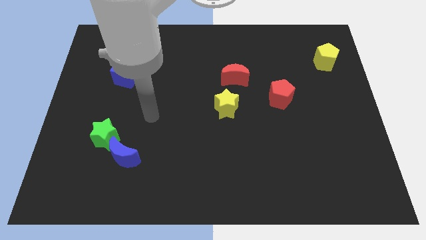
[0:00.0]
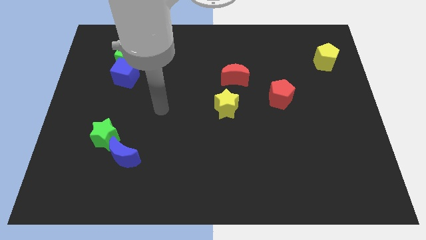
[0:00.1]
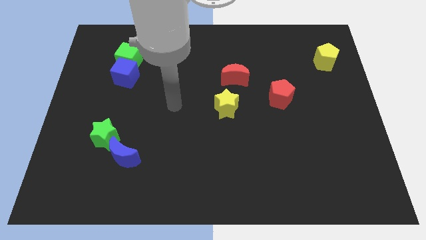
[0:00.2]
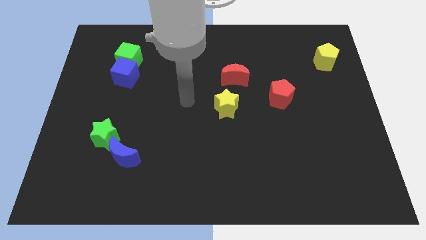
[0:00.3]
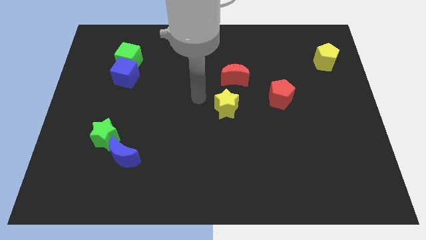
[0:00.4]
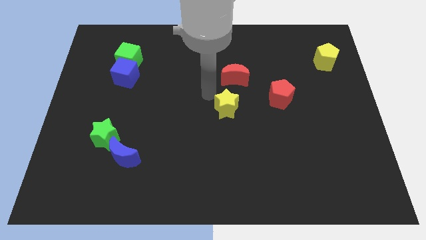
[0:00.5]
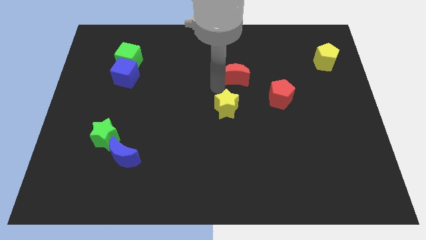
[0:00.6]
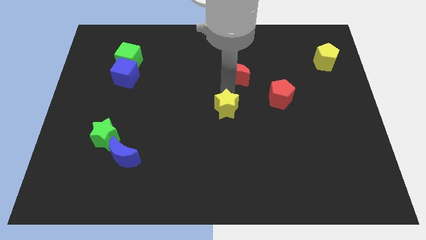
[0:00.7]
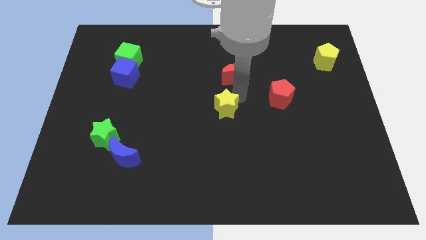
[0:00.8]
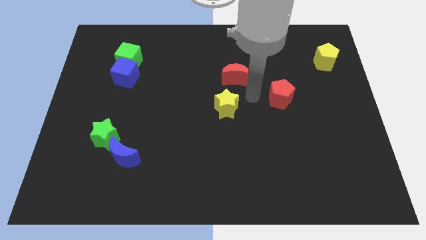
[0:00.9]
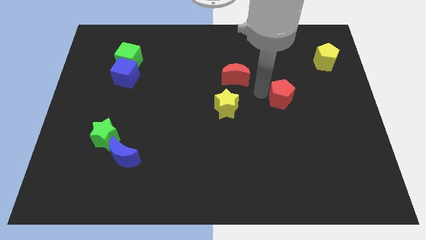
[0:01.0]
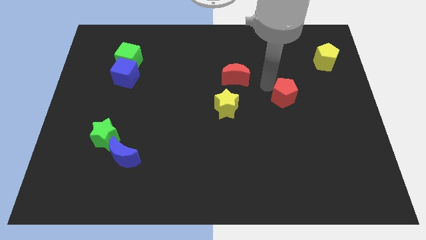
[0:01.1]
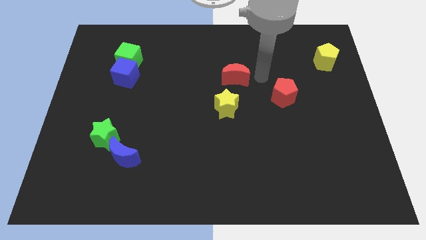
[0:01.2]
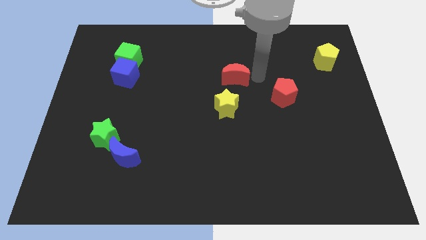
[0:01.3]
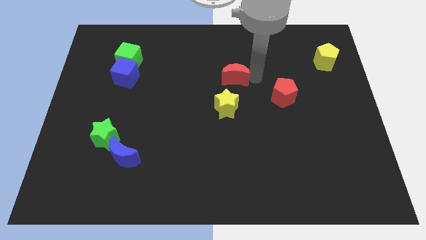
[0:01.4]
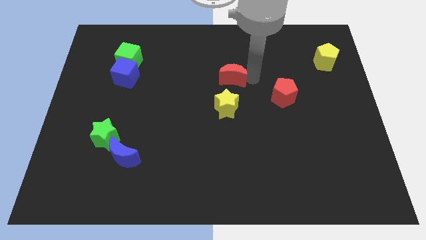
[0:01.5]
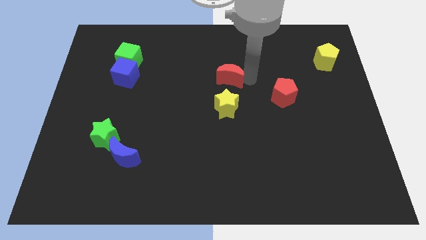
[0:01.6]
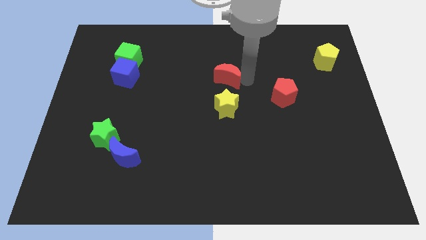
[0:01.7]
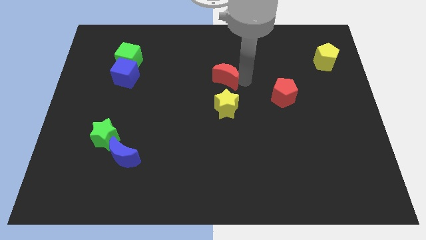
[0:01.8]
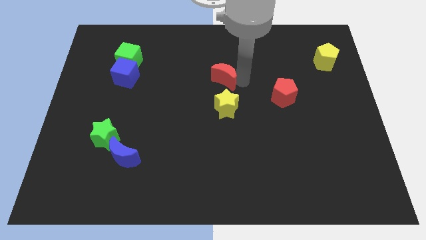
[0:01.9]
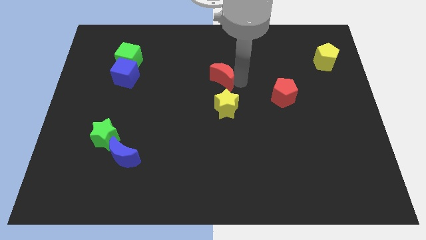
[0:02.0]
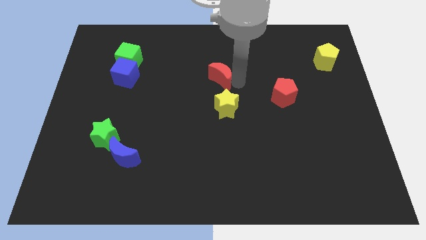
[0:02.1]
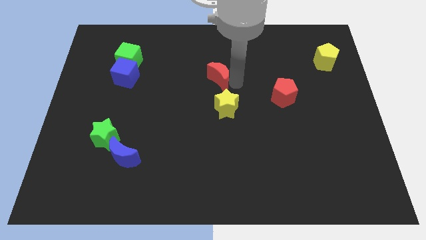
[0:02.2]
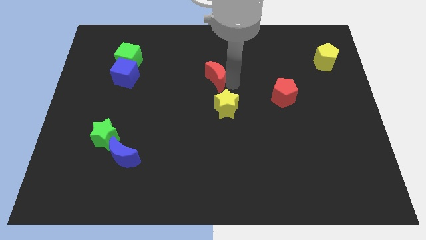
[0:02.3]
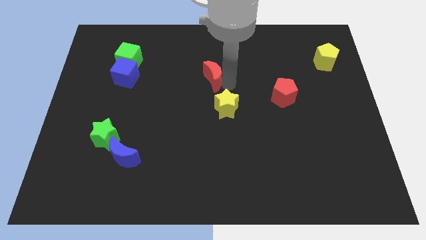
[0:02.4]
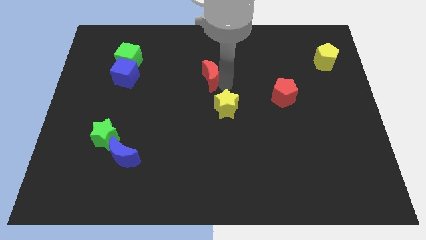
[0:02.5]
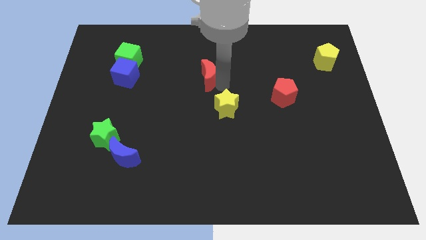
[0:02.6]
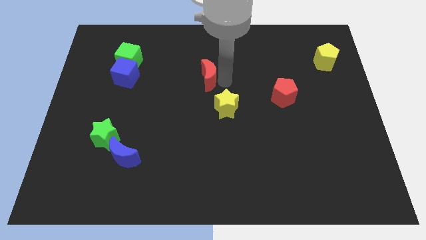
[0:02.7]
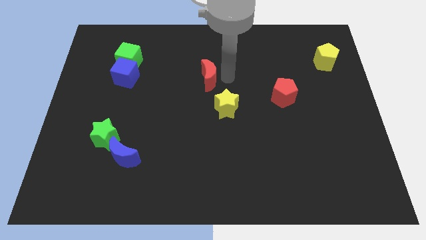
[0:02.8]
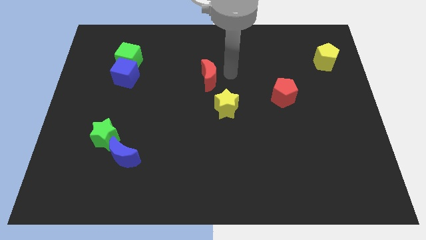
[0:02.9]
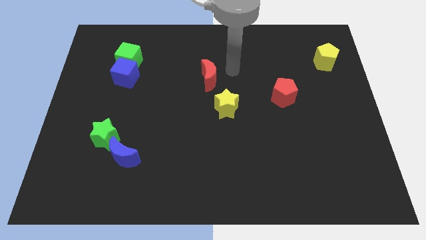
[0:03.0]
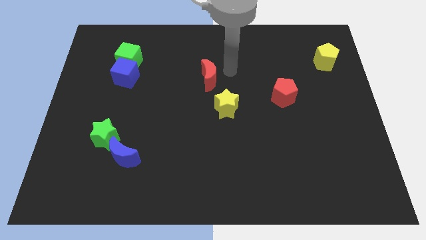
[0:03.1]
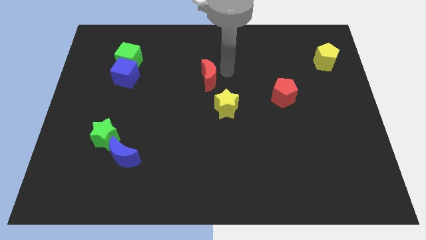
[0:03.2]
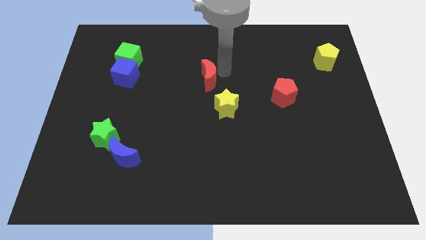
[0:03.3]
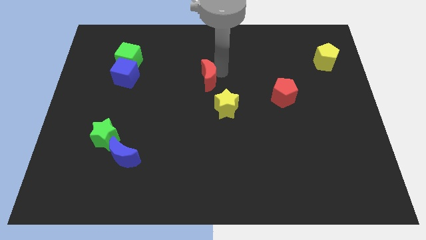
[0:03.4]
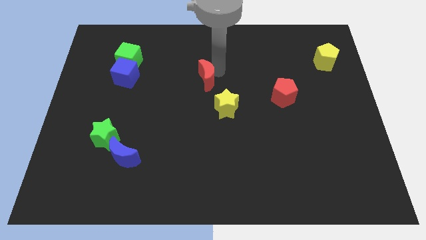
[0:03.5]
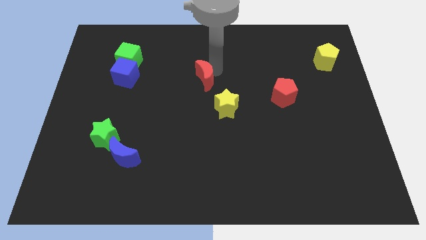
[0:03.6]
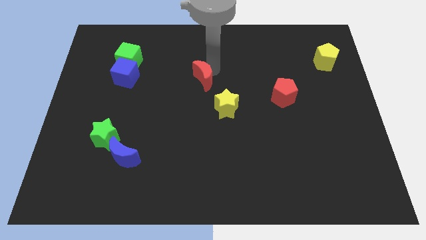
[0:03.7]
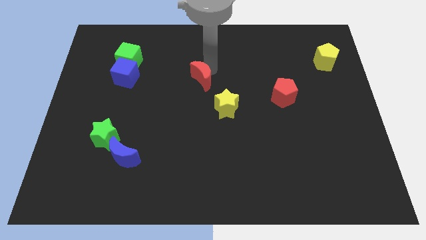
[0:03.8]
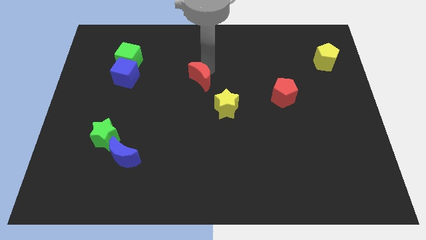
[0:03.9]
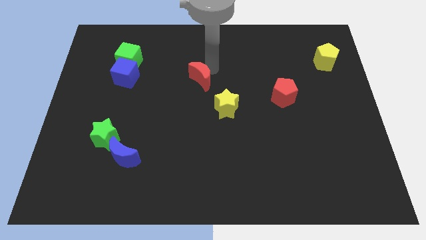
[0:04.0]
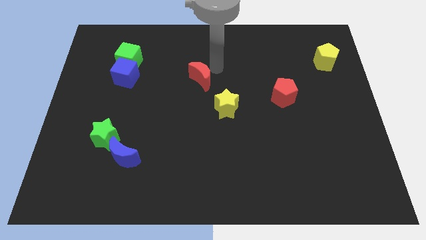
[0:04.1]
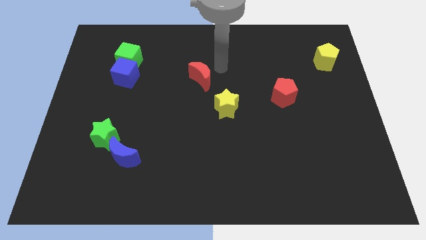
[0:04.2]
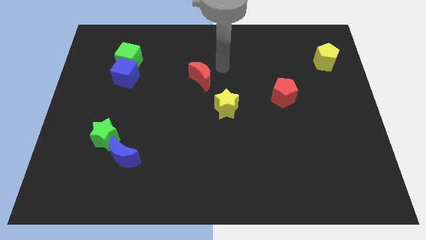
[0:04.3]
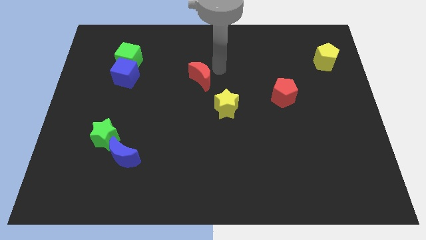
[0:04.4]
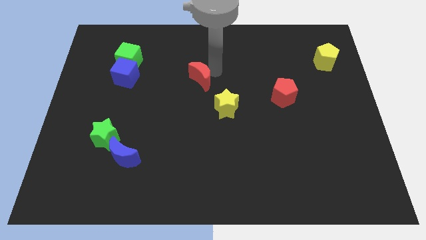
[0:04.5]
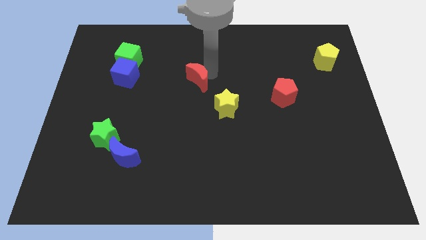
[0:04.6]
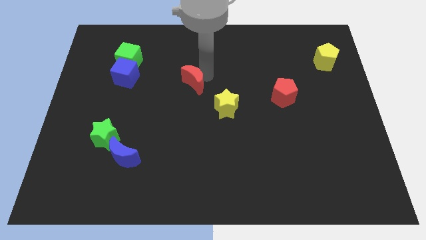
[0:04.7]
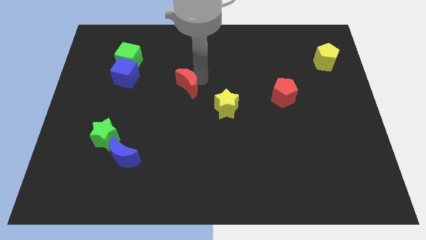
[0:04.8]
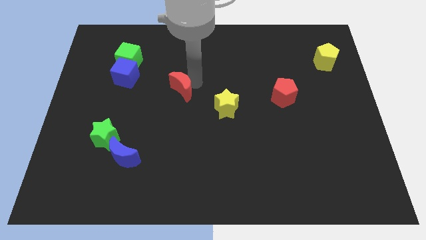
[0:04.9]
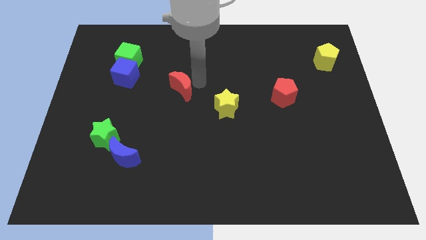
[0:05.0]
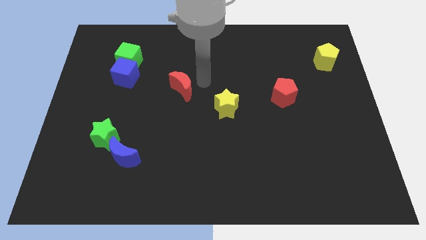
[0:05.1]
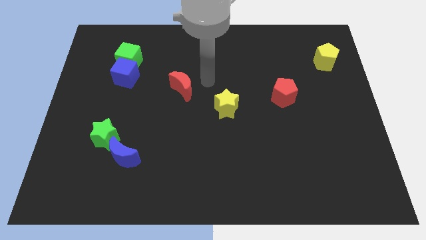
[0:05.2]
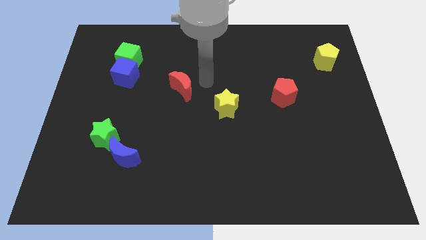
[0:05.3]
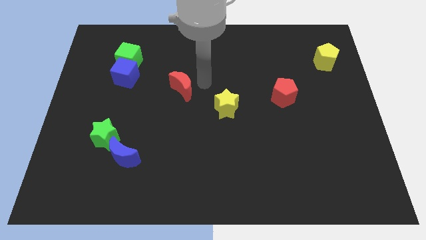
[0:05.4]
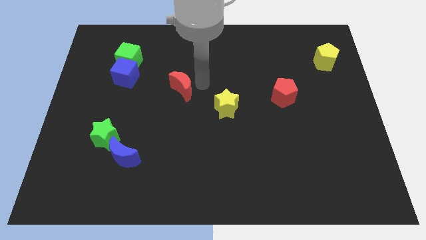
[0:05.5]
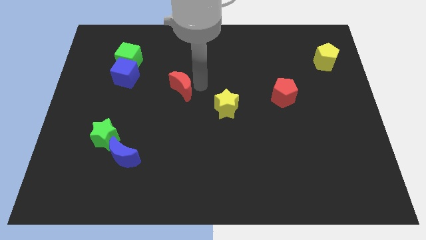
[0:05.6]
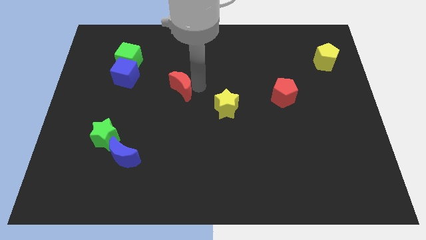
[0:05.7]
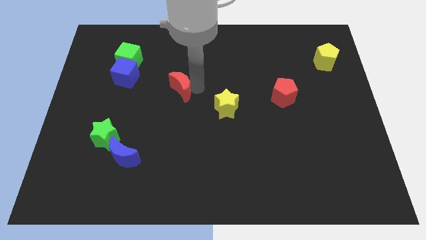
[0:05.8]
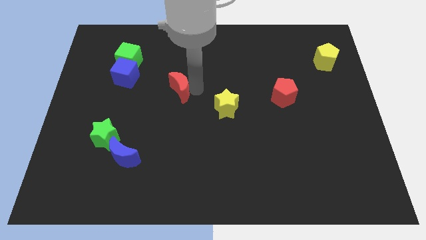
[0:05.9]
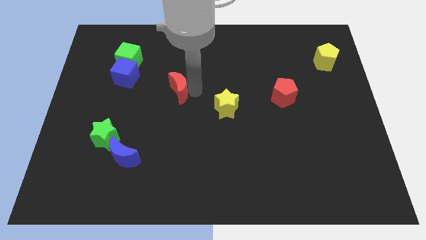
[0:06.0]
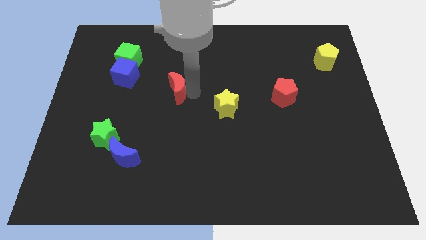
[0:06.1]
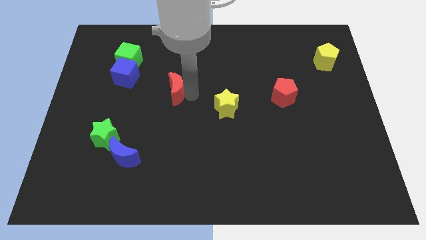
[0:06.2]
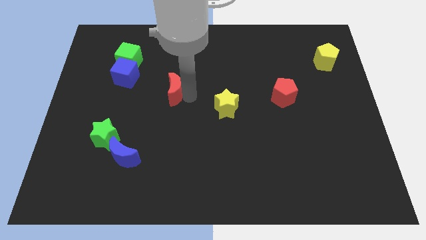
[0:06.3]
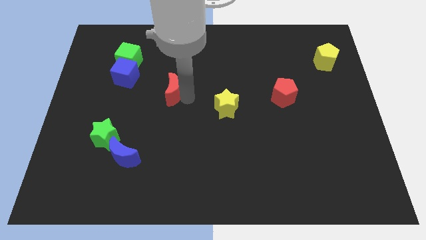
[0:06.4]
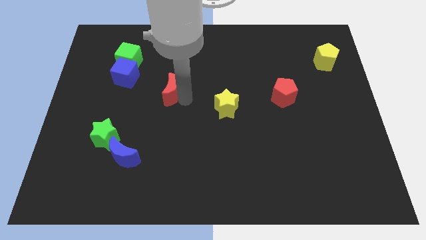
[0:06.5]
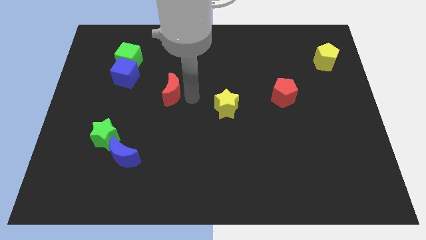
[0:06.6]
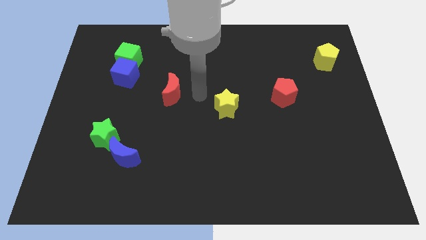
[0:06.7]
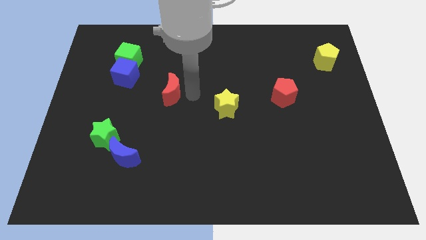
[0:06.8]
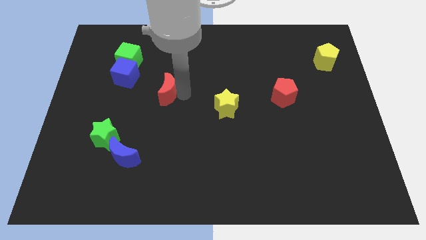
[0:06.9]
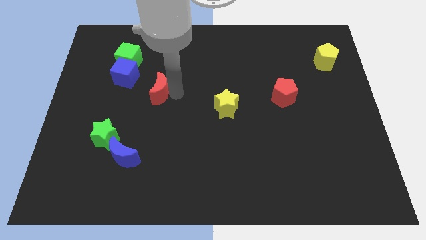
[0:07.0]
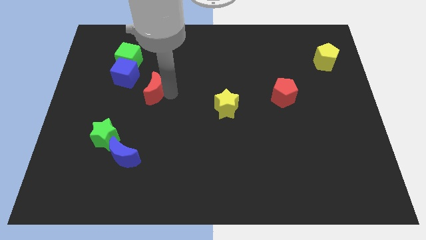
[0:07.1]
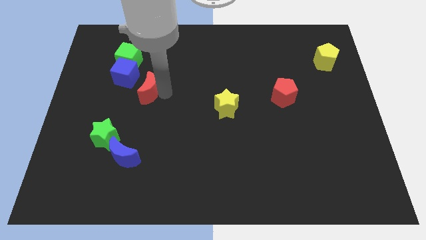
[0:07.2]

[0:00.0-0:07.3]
move the red moon left

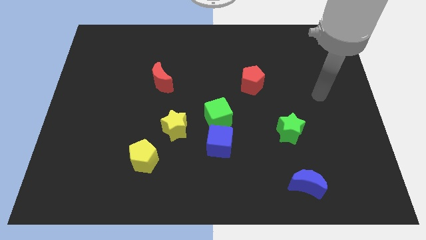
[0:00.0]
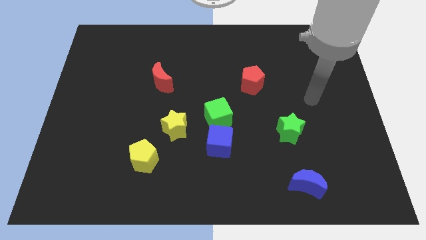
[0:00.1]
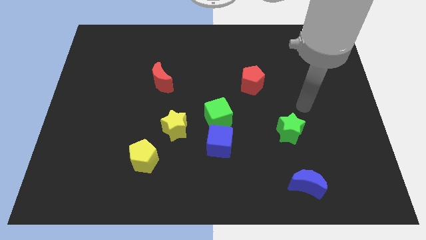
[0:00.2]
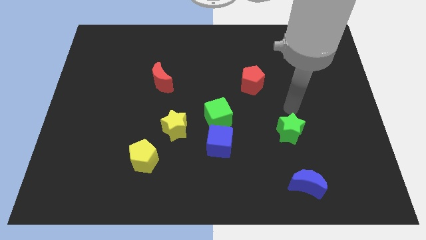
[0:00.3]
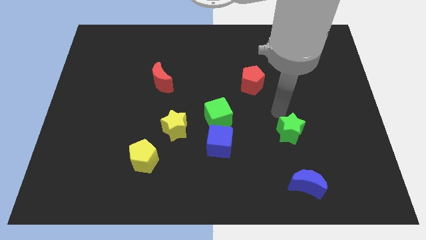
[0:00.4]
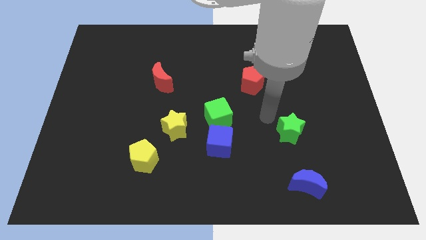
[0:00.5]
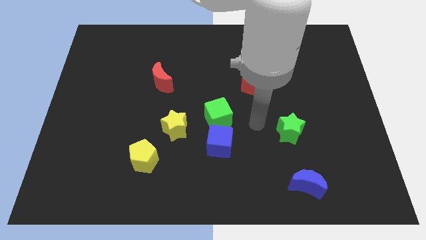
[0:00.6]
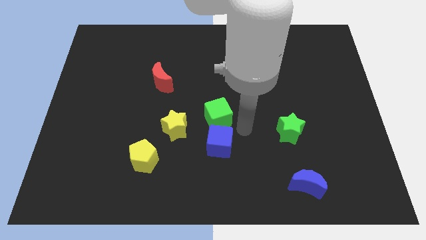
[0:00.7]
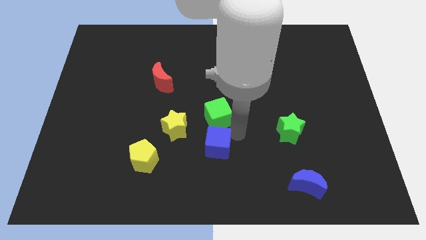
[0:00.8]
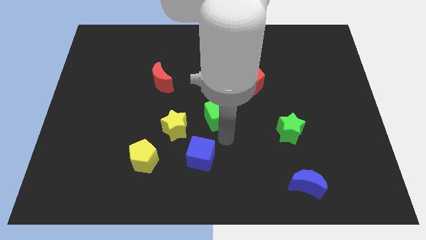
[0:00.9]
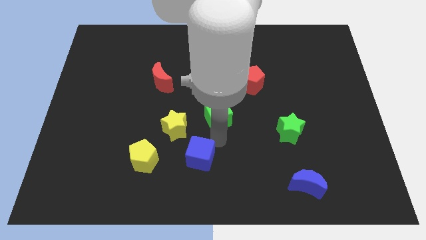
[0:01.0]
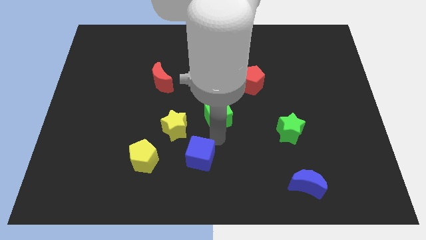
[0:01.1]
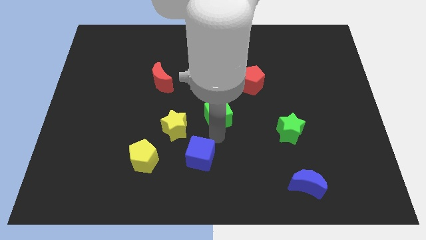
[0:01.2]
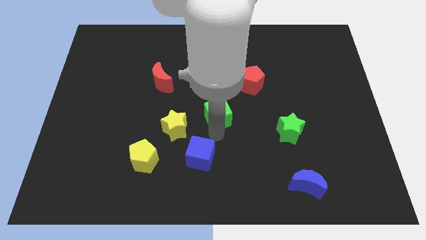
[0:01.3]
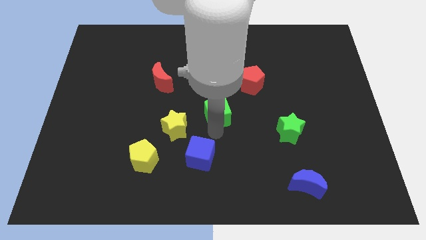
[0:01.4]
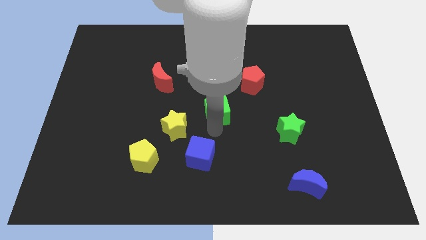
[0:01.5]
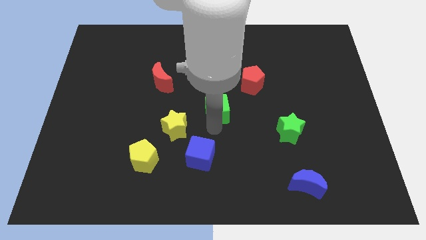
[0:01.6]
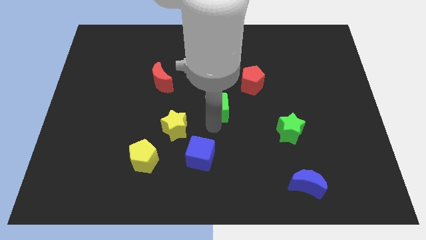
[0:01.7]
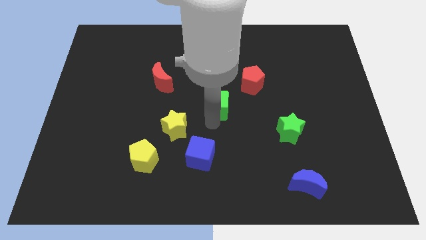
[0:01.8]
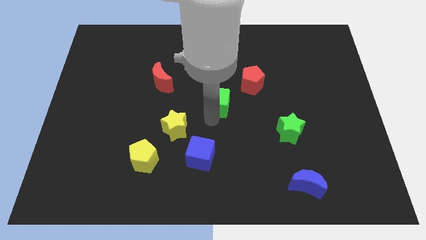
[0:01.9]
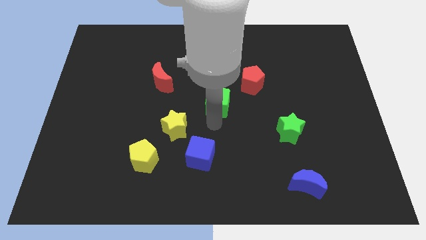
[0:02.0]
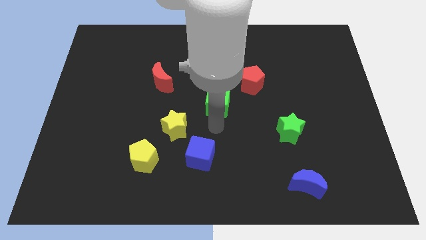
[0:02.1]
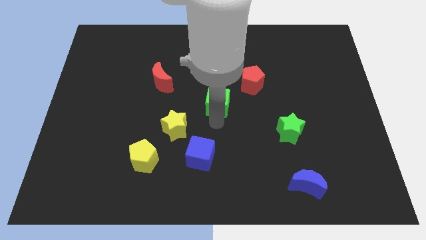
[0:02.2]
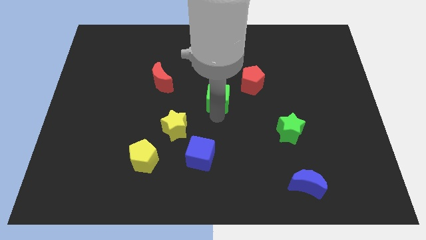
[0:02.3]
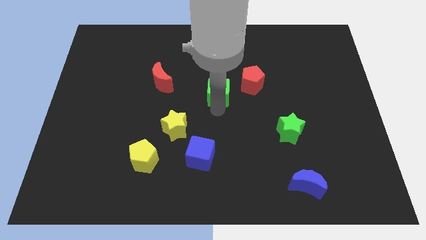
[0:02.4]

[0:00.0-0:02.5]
push the green cube a bit up
